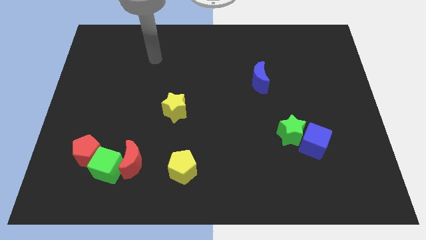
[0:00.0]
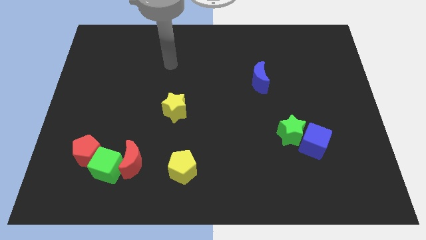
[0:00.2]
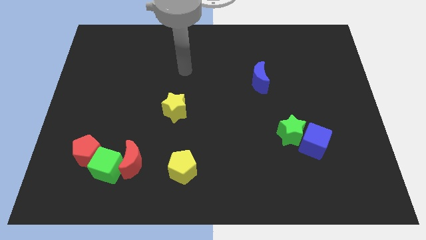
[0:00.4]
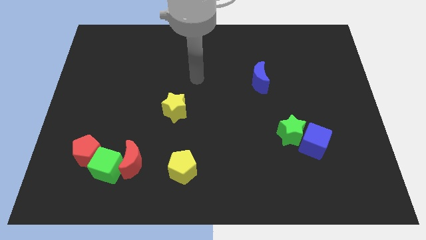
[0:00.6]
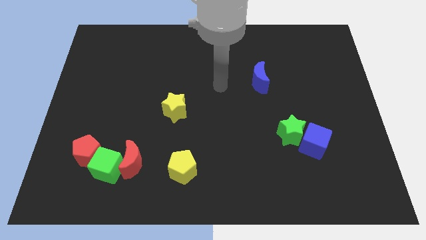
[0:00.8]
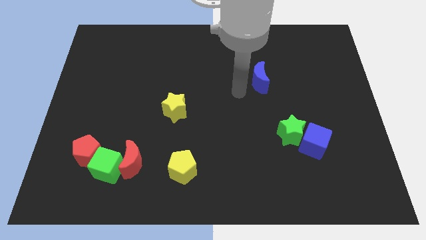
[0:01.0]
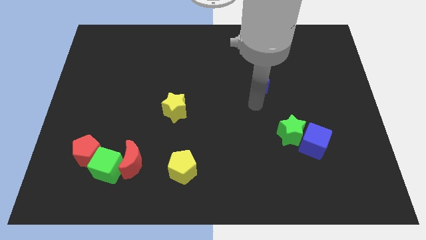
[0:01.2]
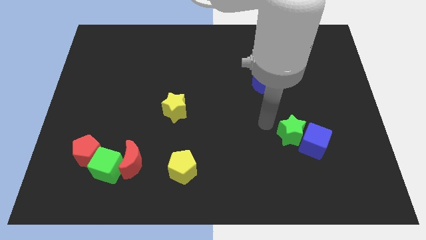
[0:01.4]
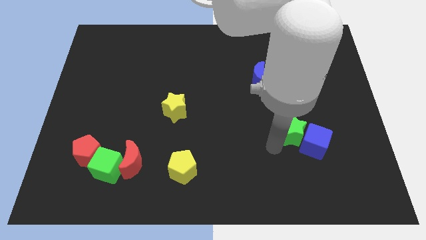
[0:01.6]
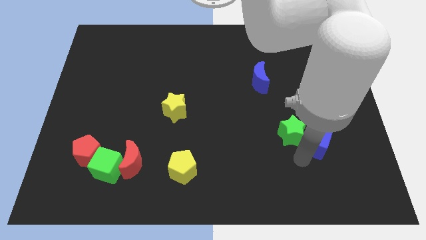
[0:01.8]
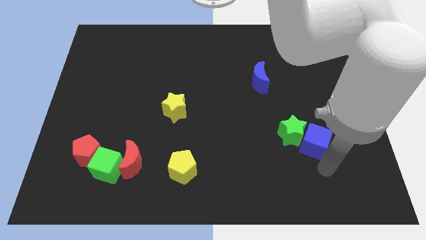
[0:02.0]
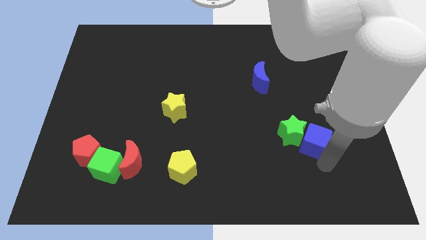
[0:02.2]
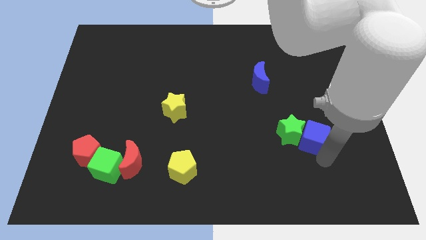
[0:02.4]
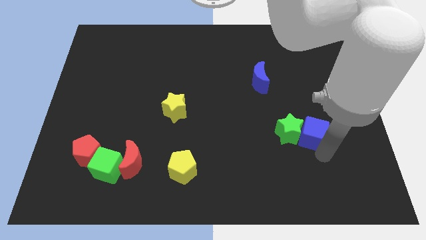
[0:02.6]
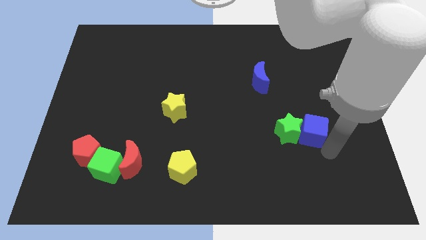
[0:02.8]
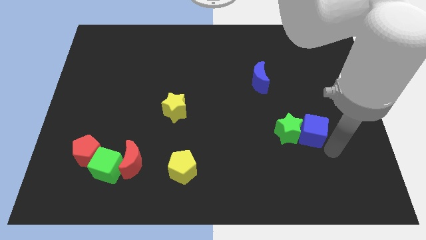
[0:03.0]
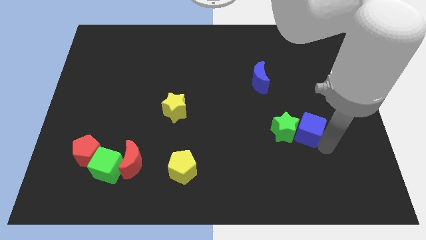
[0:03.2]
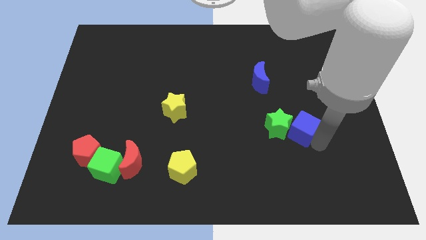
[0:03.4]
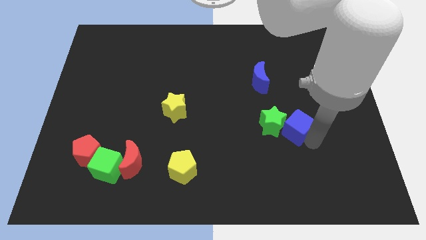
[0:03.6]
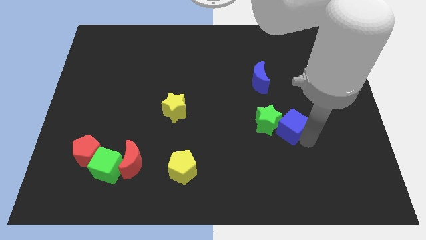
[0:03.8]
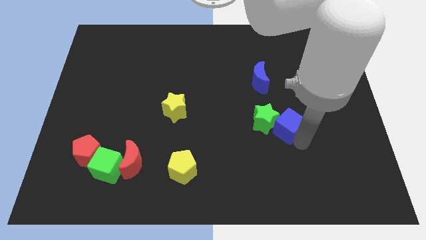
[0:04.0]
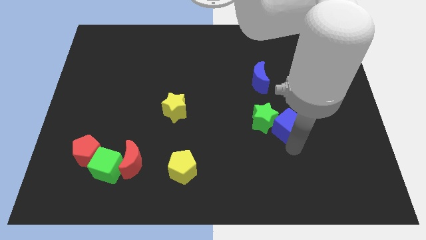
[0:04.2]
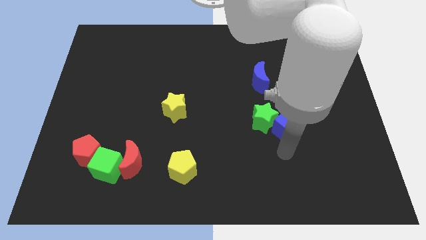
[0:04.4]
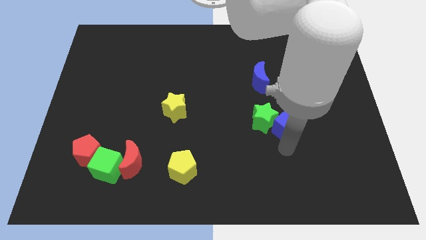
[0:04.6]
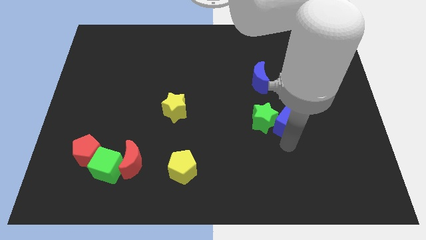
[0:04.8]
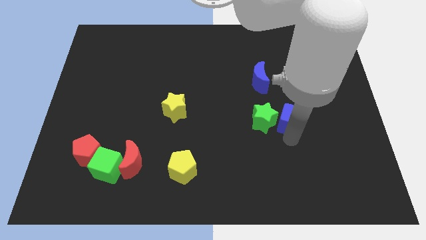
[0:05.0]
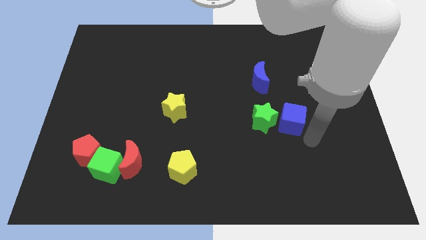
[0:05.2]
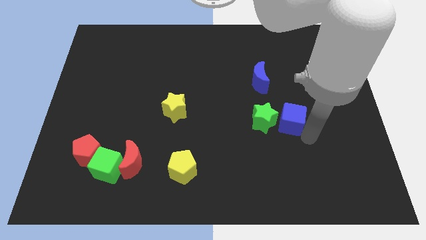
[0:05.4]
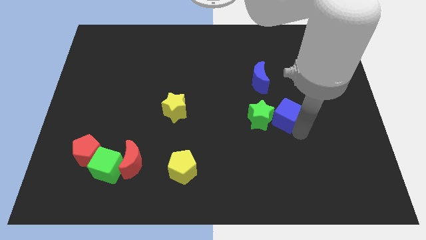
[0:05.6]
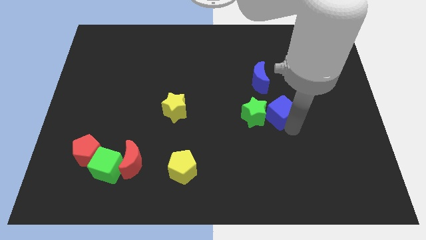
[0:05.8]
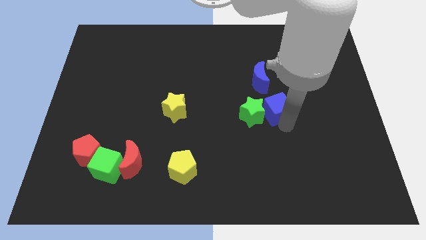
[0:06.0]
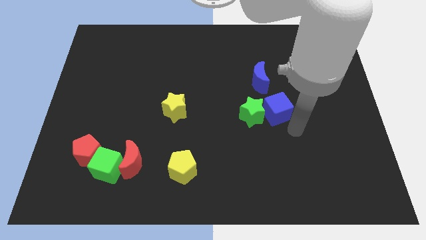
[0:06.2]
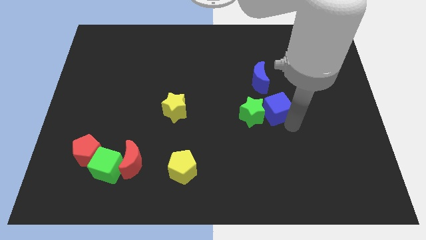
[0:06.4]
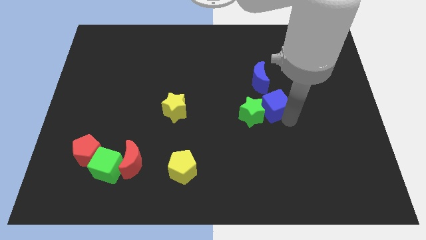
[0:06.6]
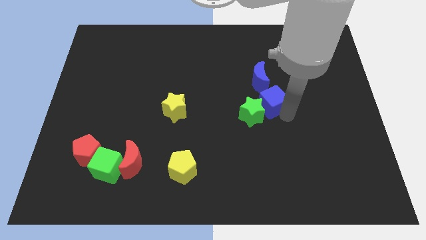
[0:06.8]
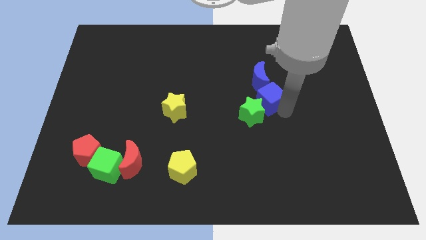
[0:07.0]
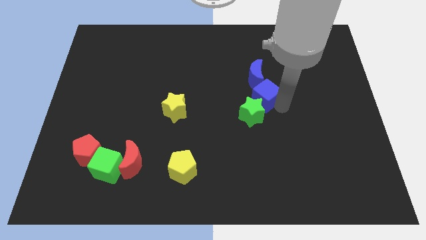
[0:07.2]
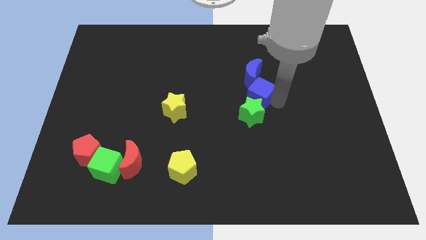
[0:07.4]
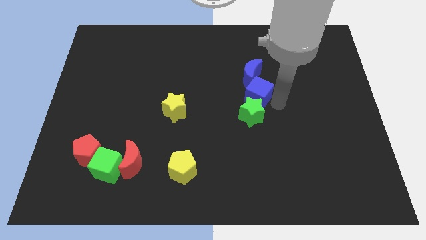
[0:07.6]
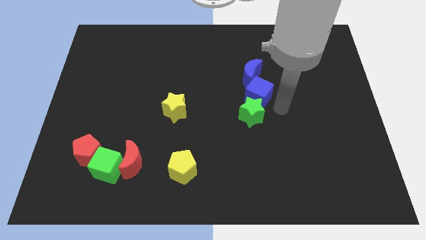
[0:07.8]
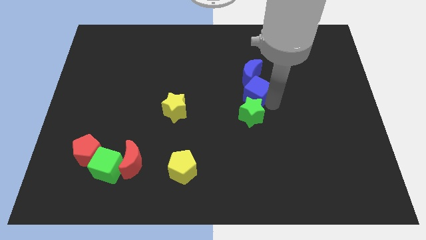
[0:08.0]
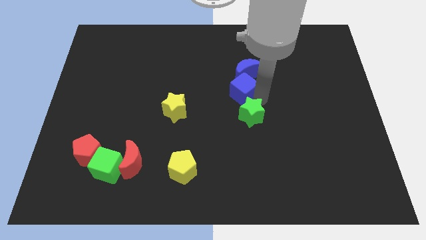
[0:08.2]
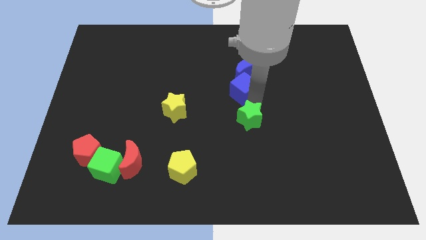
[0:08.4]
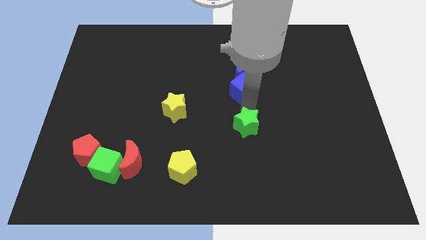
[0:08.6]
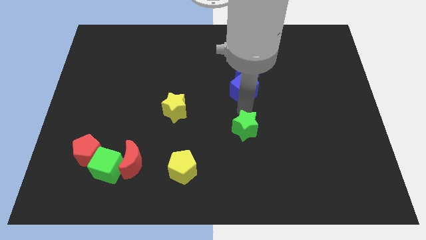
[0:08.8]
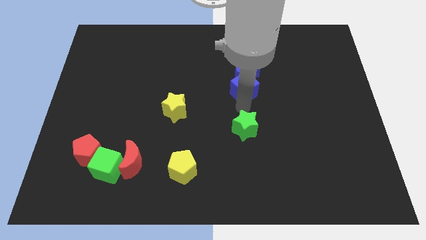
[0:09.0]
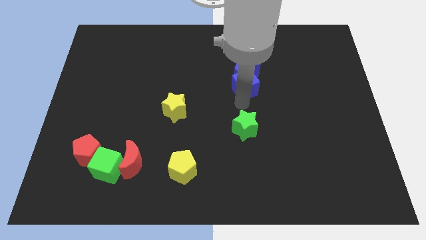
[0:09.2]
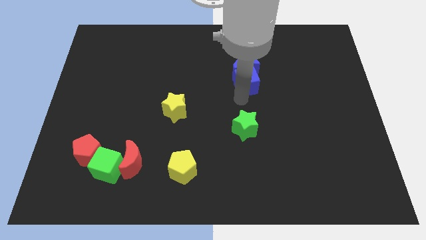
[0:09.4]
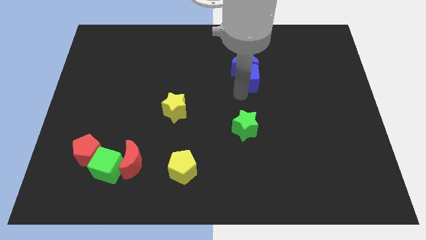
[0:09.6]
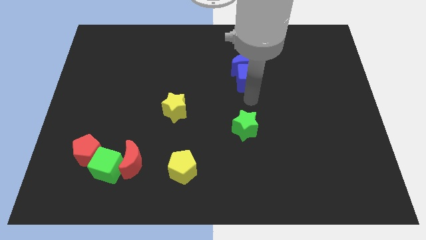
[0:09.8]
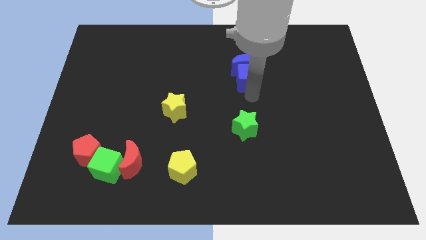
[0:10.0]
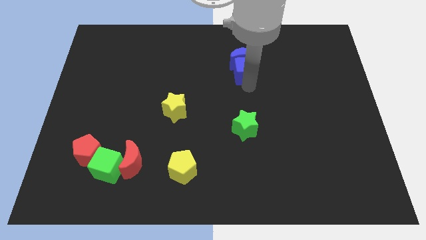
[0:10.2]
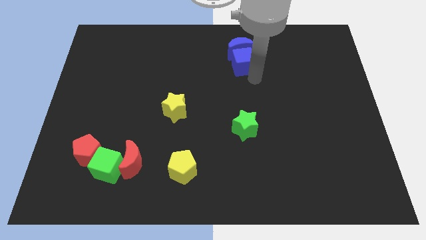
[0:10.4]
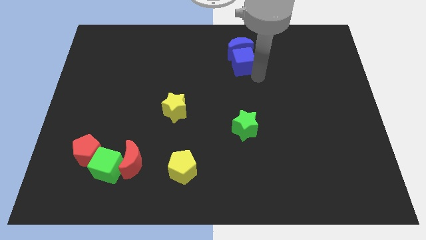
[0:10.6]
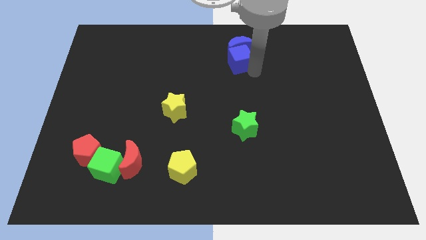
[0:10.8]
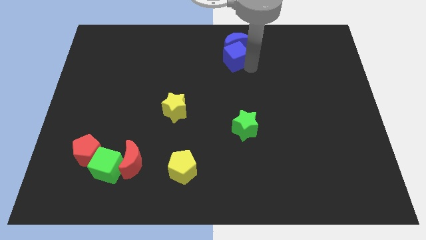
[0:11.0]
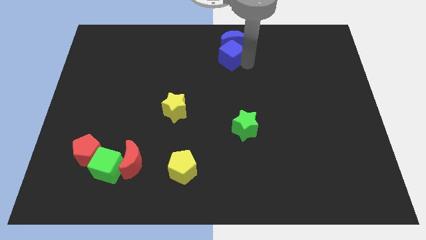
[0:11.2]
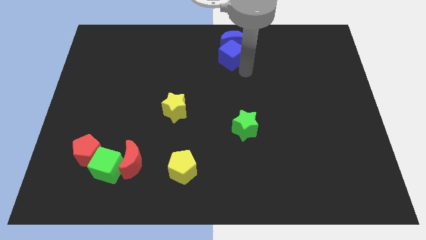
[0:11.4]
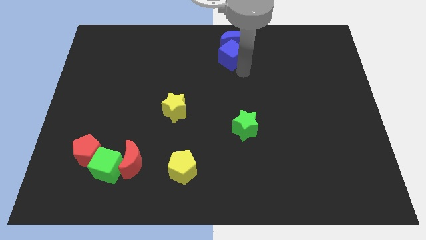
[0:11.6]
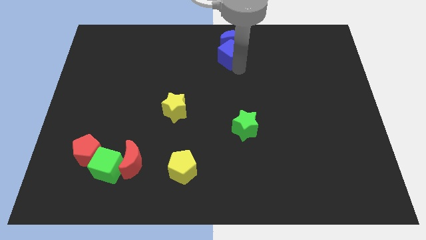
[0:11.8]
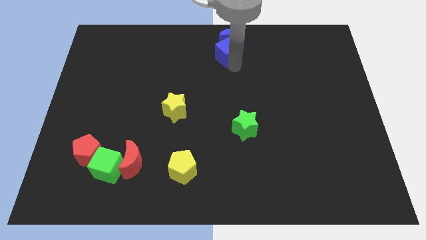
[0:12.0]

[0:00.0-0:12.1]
push the blue cube to the towards your base

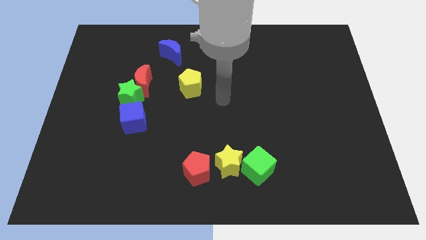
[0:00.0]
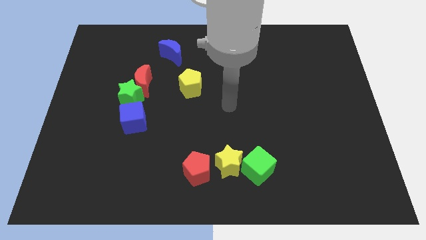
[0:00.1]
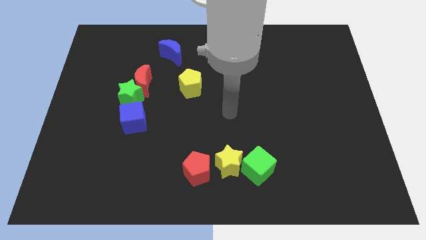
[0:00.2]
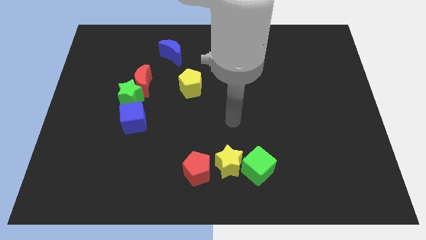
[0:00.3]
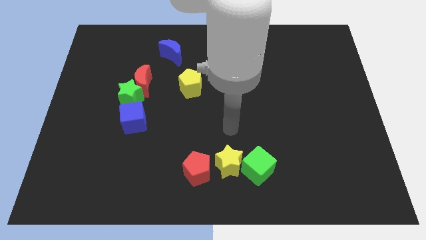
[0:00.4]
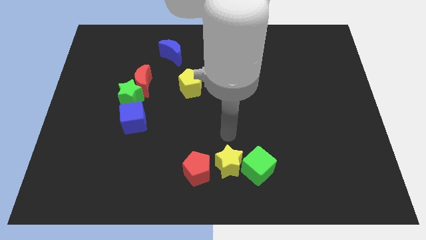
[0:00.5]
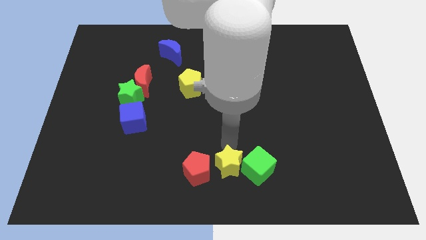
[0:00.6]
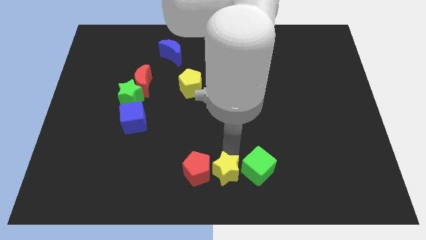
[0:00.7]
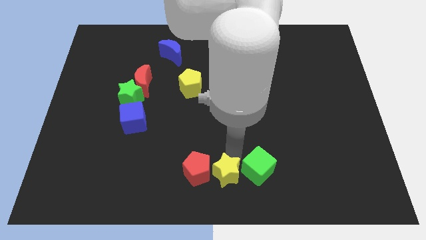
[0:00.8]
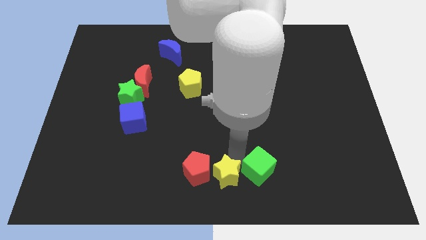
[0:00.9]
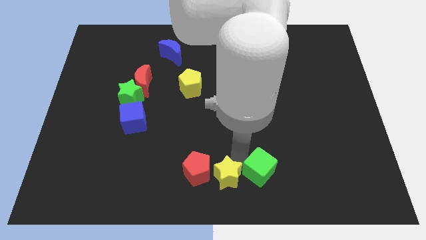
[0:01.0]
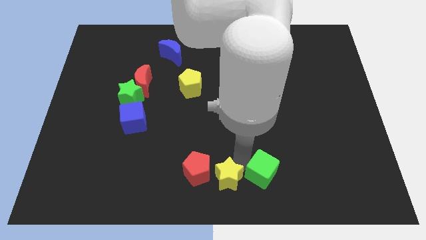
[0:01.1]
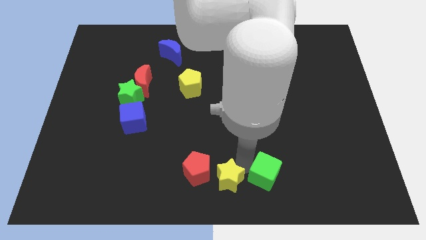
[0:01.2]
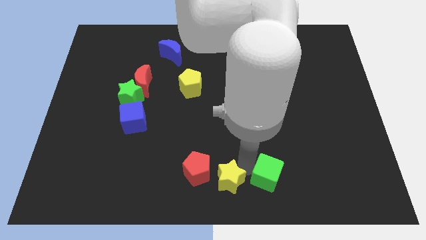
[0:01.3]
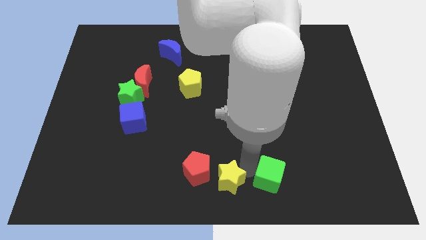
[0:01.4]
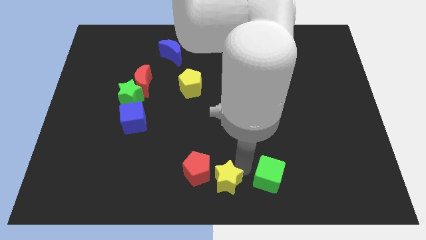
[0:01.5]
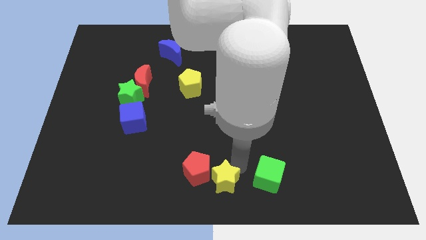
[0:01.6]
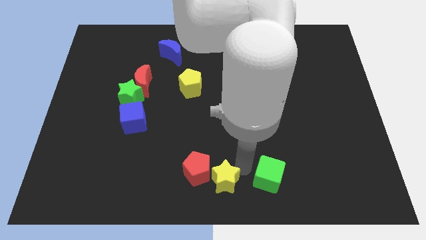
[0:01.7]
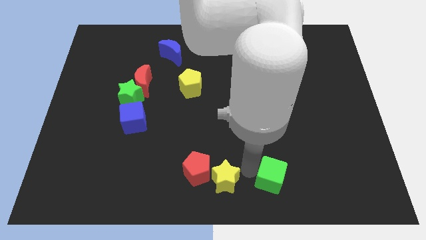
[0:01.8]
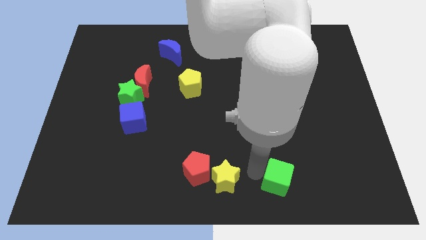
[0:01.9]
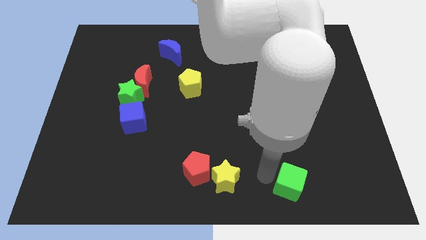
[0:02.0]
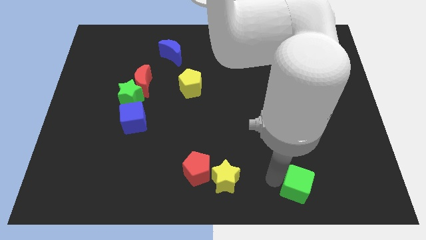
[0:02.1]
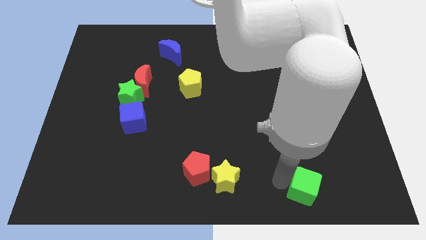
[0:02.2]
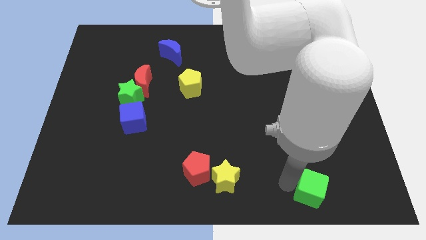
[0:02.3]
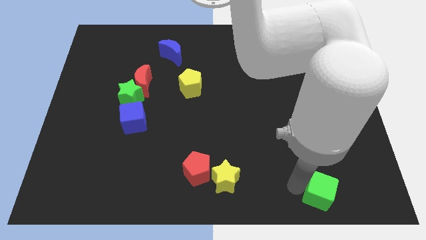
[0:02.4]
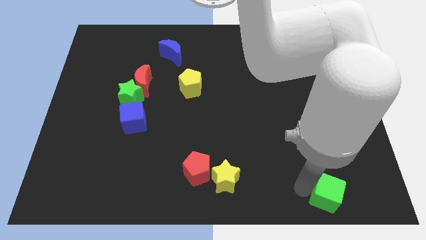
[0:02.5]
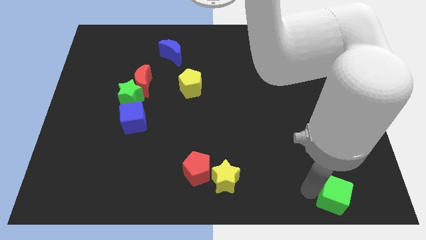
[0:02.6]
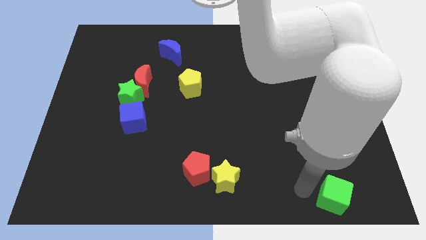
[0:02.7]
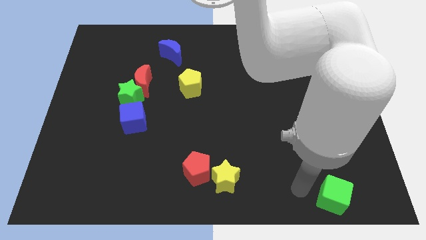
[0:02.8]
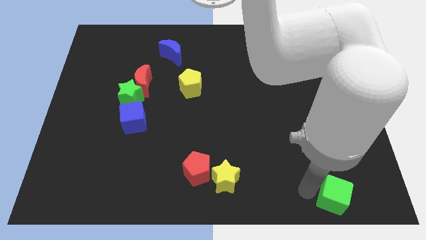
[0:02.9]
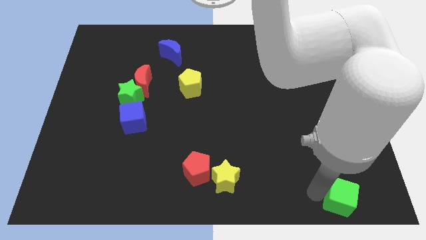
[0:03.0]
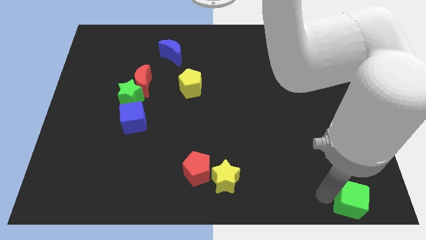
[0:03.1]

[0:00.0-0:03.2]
slide the green cube to the bottom right corner
